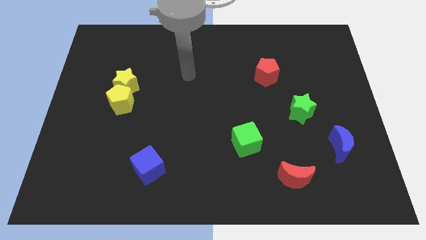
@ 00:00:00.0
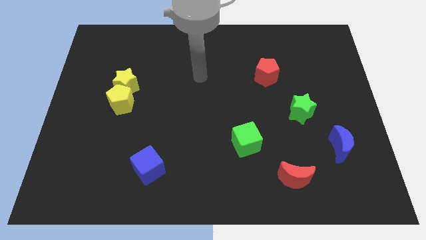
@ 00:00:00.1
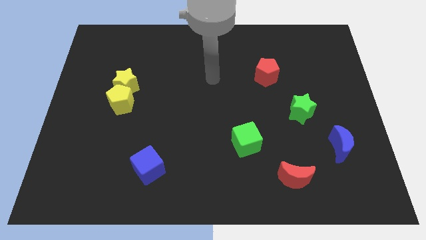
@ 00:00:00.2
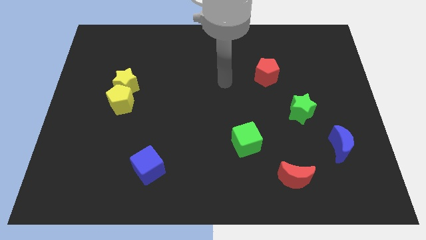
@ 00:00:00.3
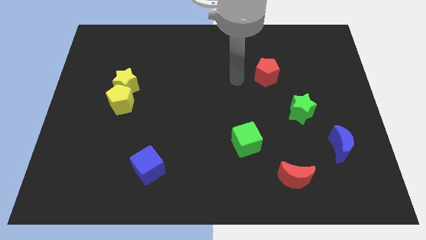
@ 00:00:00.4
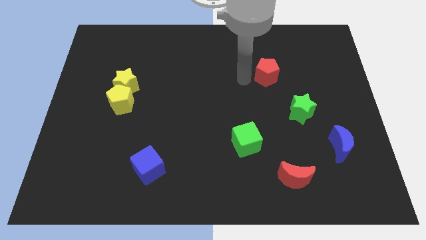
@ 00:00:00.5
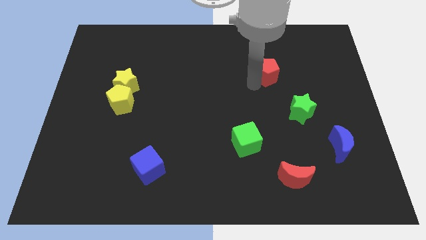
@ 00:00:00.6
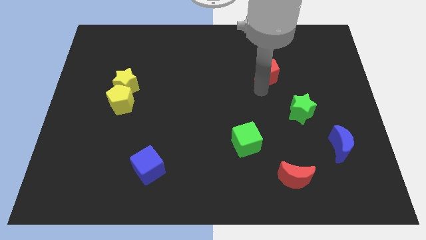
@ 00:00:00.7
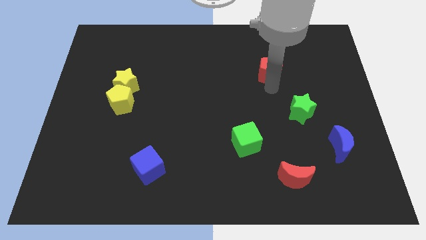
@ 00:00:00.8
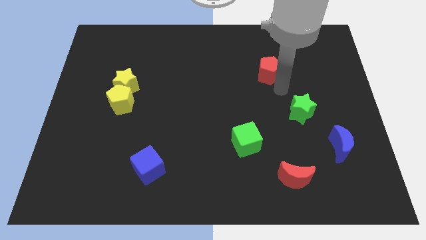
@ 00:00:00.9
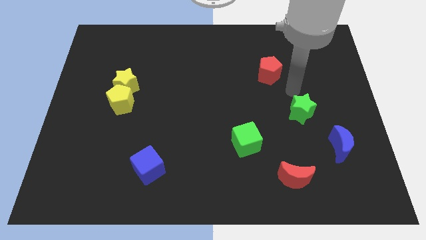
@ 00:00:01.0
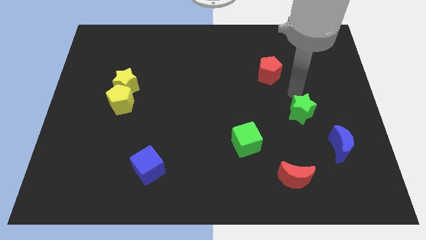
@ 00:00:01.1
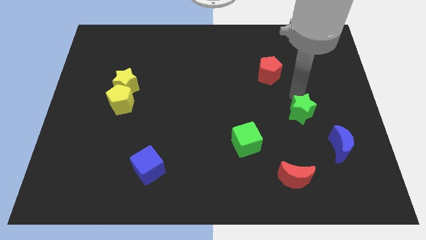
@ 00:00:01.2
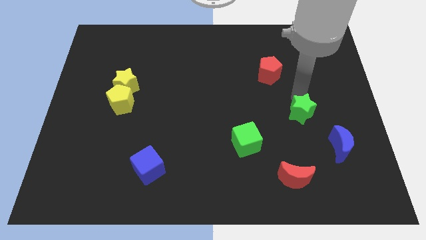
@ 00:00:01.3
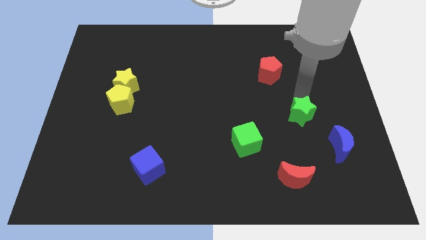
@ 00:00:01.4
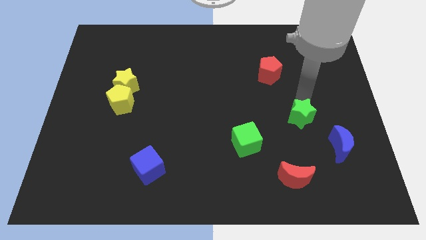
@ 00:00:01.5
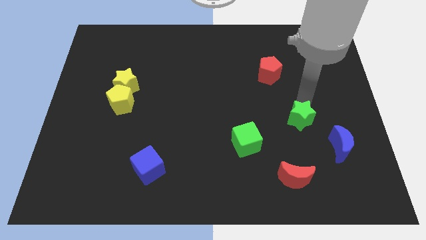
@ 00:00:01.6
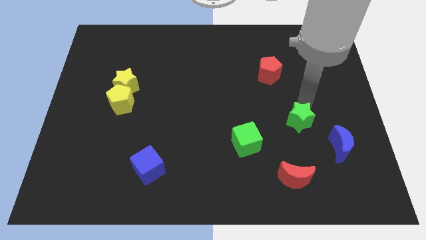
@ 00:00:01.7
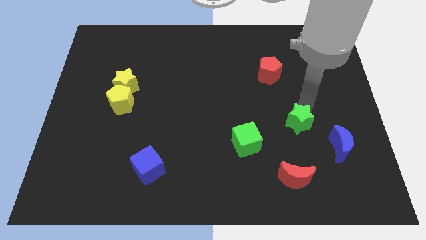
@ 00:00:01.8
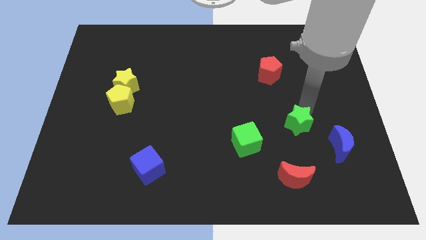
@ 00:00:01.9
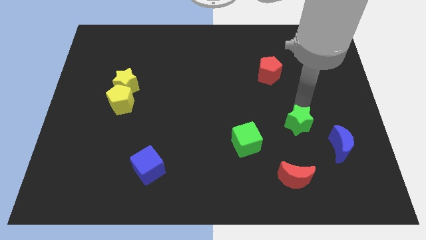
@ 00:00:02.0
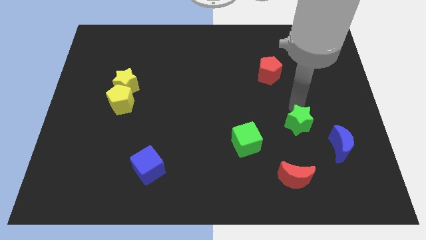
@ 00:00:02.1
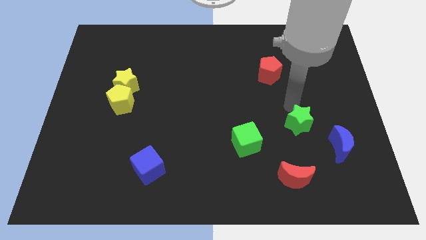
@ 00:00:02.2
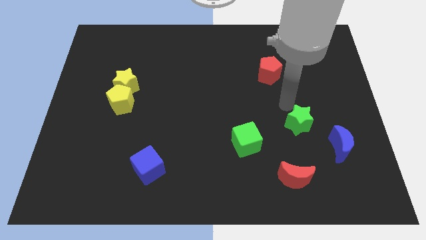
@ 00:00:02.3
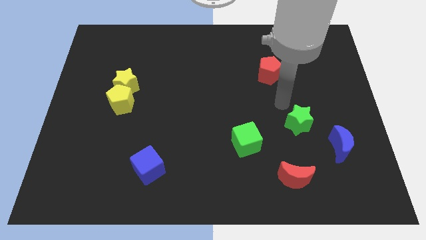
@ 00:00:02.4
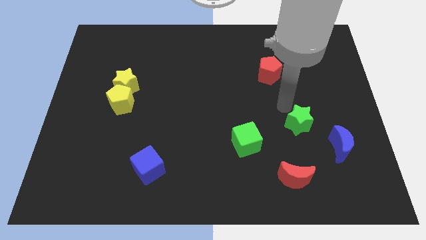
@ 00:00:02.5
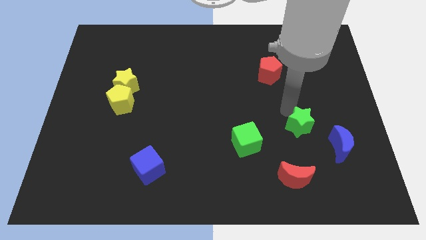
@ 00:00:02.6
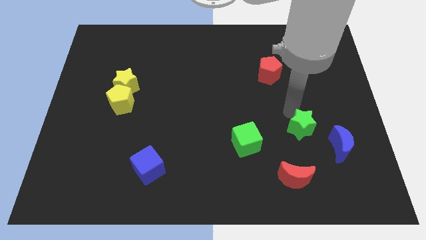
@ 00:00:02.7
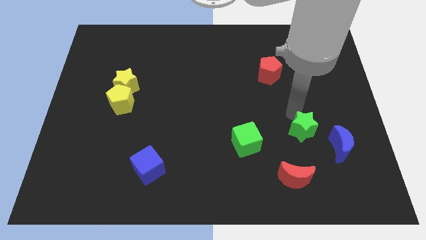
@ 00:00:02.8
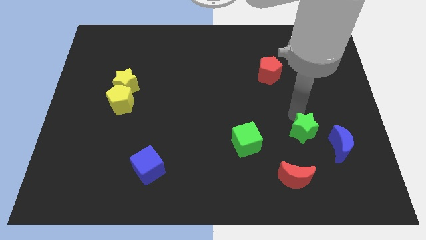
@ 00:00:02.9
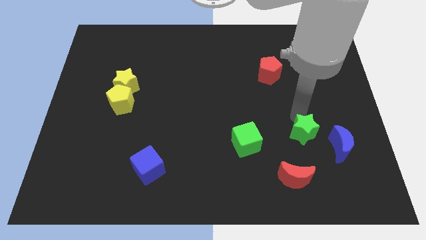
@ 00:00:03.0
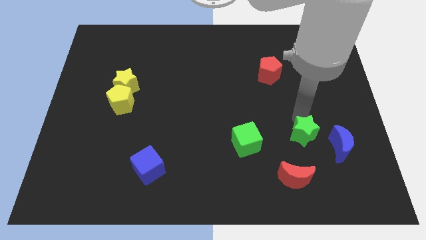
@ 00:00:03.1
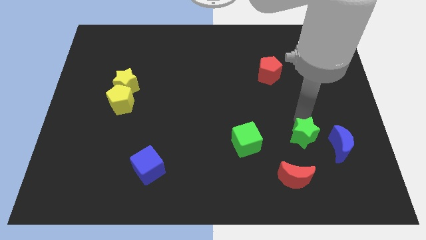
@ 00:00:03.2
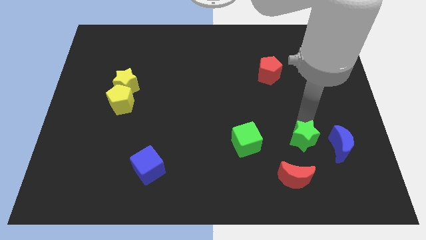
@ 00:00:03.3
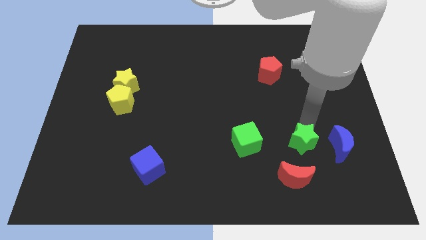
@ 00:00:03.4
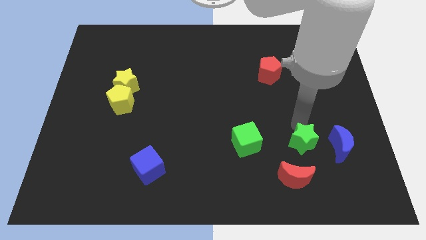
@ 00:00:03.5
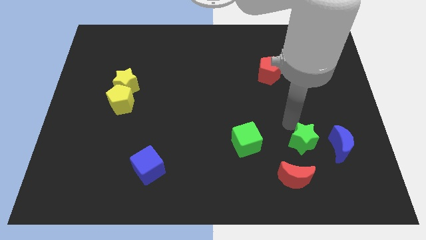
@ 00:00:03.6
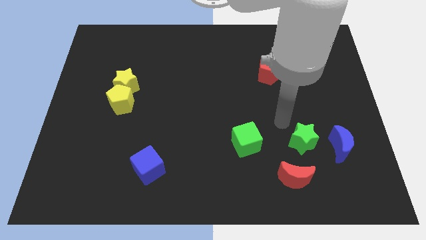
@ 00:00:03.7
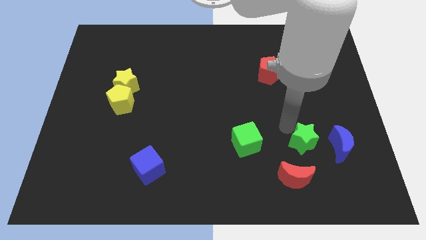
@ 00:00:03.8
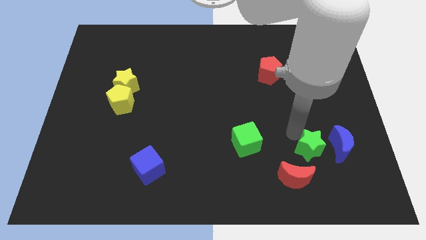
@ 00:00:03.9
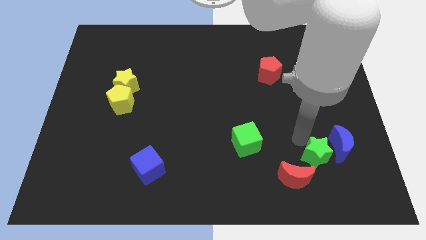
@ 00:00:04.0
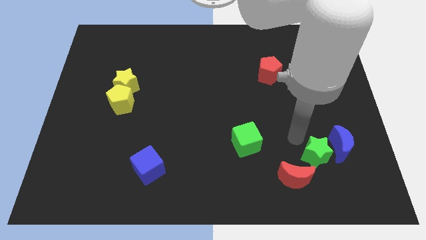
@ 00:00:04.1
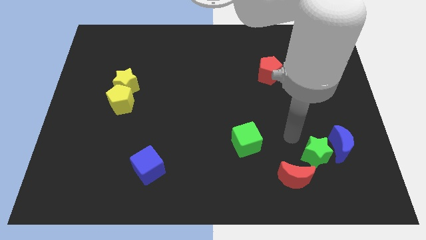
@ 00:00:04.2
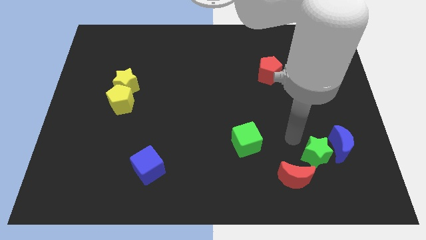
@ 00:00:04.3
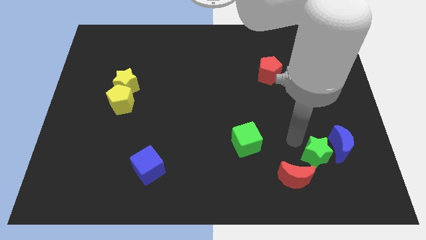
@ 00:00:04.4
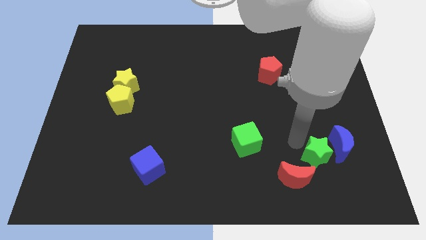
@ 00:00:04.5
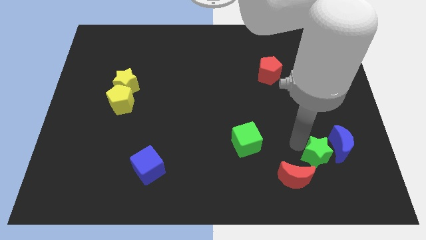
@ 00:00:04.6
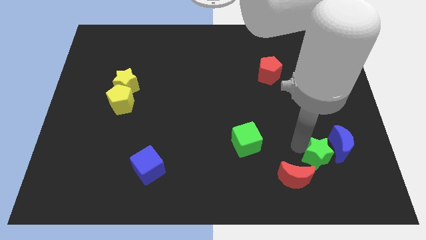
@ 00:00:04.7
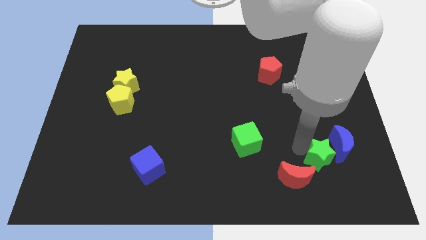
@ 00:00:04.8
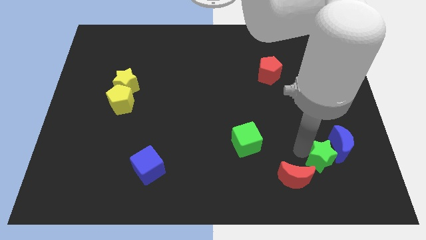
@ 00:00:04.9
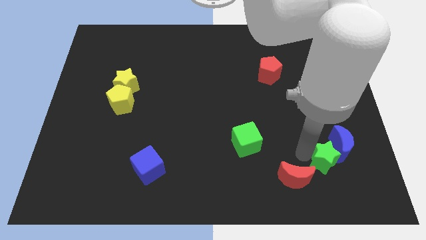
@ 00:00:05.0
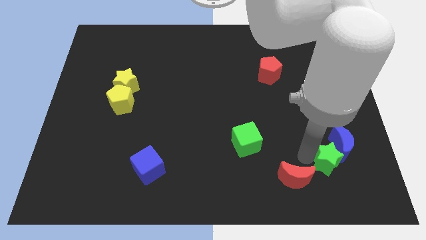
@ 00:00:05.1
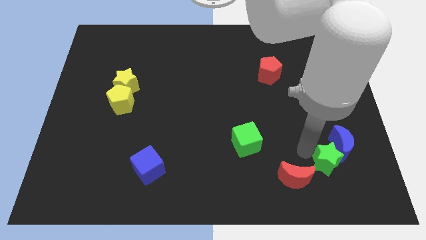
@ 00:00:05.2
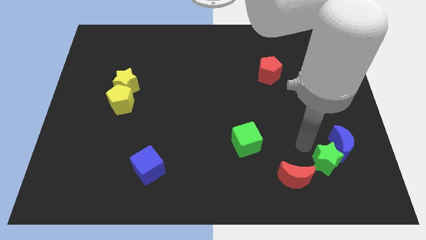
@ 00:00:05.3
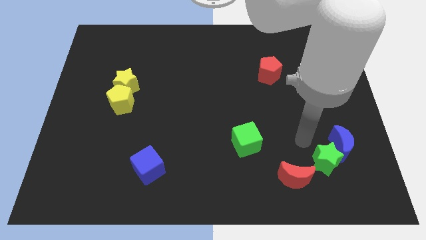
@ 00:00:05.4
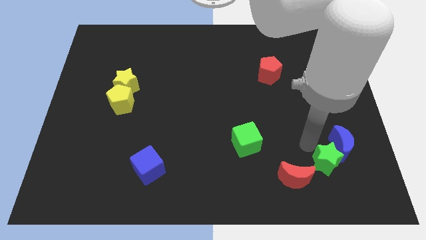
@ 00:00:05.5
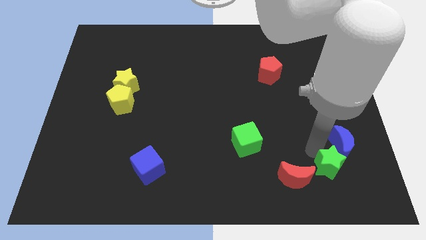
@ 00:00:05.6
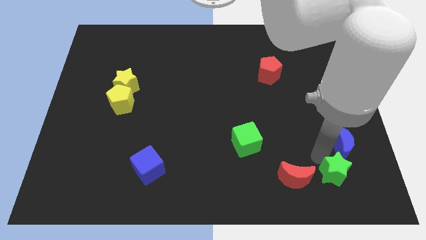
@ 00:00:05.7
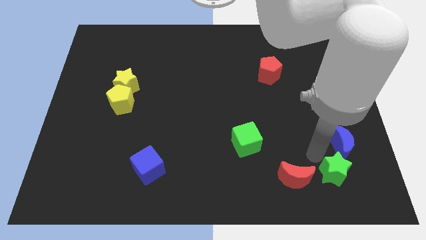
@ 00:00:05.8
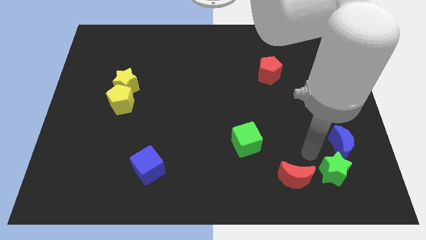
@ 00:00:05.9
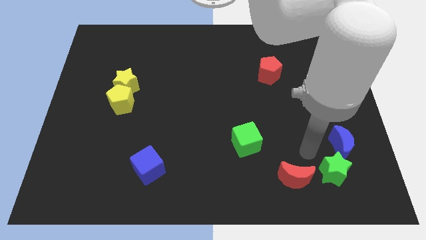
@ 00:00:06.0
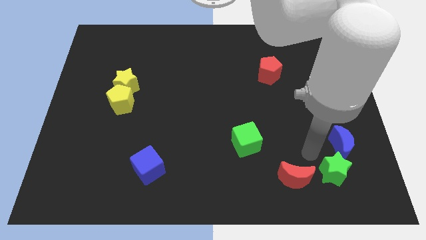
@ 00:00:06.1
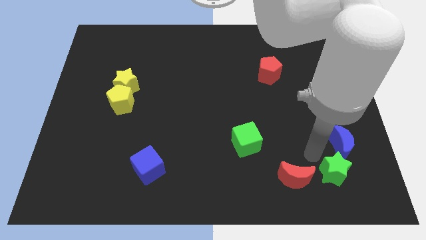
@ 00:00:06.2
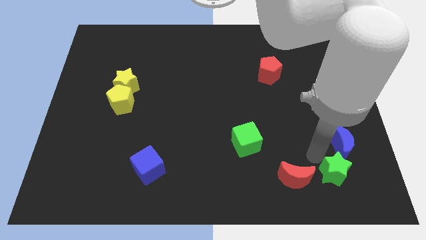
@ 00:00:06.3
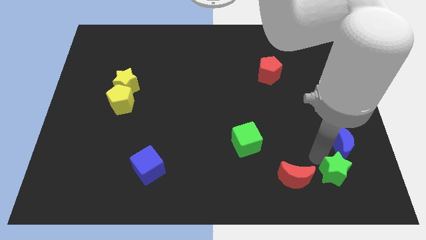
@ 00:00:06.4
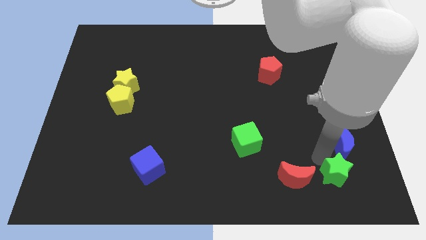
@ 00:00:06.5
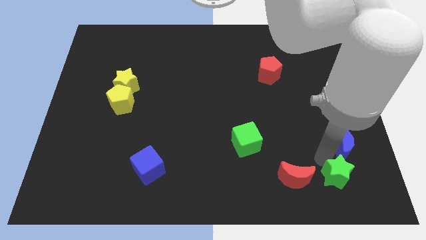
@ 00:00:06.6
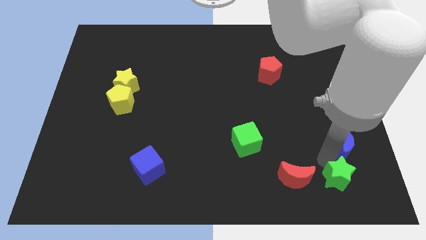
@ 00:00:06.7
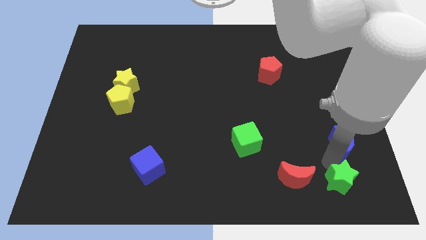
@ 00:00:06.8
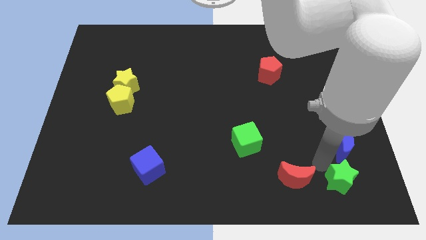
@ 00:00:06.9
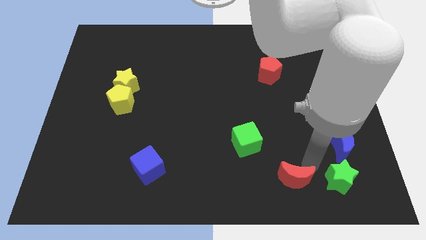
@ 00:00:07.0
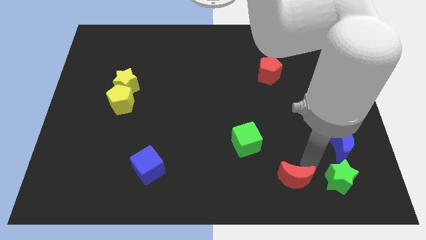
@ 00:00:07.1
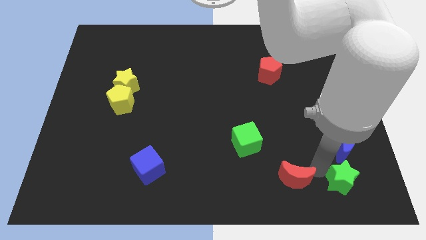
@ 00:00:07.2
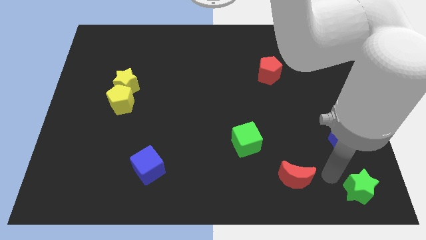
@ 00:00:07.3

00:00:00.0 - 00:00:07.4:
push the green star to the bottom right
